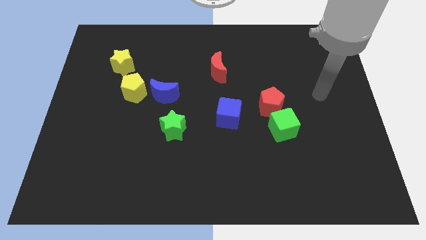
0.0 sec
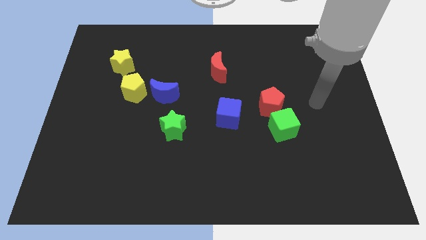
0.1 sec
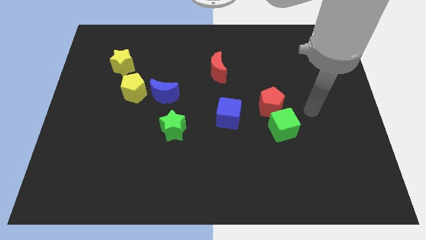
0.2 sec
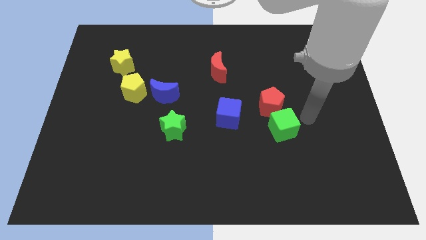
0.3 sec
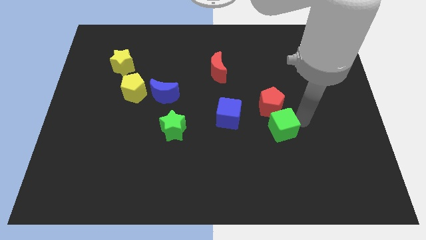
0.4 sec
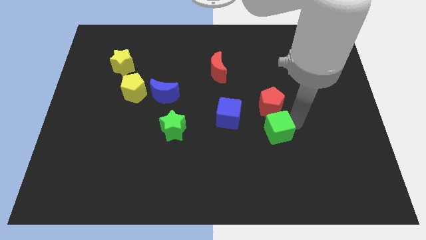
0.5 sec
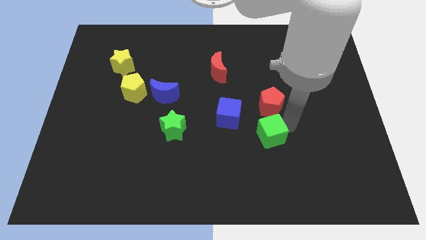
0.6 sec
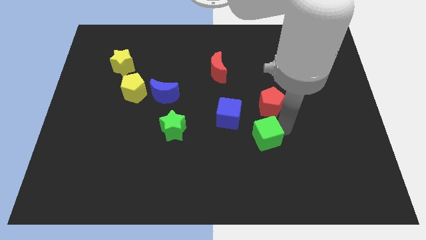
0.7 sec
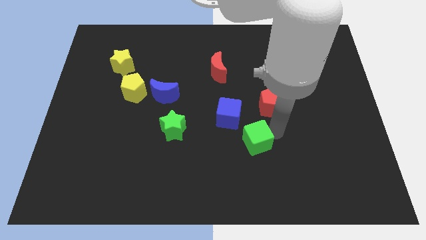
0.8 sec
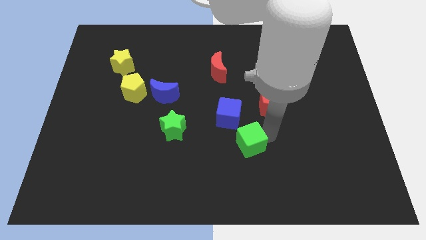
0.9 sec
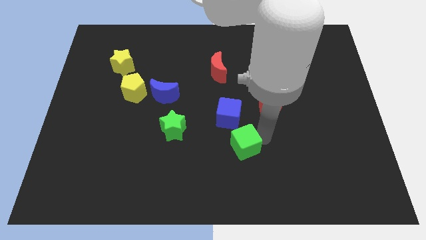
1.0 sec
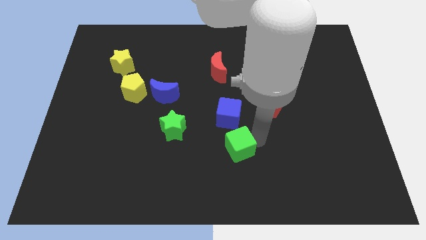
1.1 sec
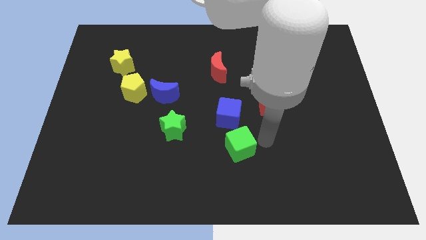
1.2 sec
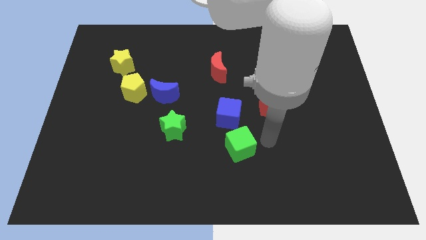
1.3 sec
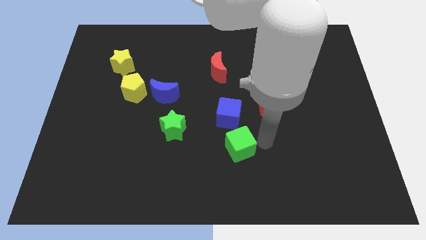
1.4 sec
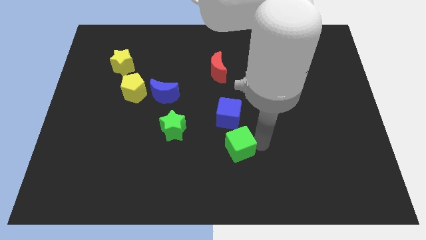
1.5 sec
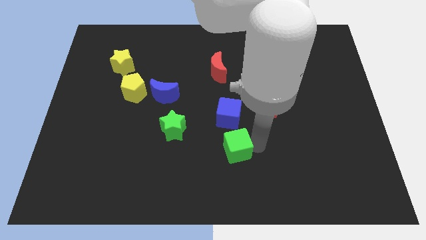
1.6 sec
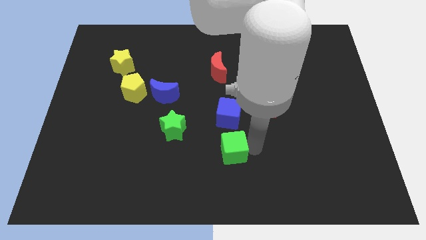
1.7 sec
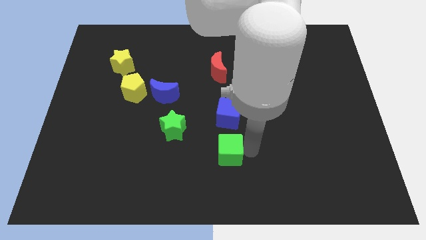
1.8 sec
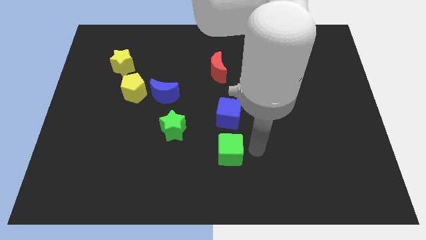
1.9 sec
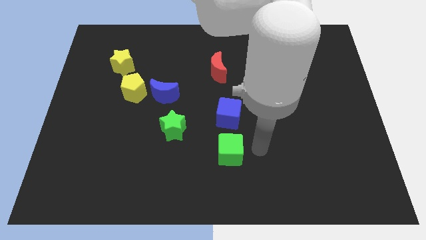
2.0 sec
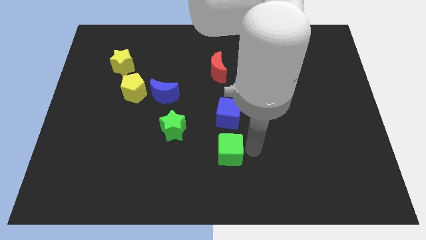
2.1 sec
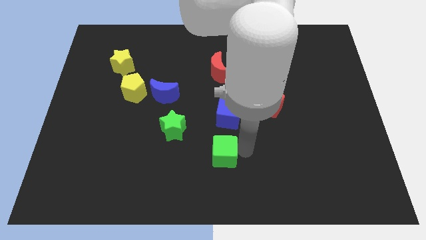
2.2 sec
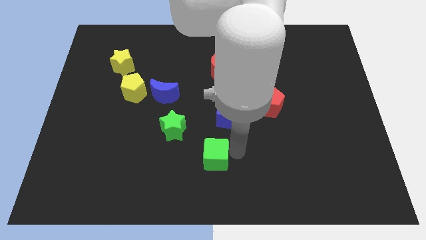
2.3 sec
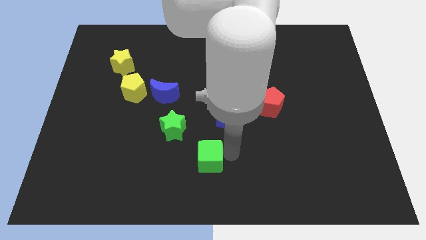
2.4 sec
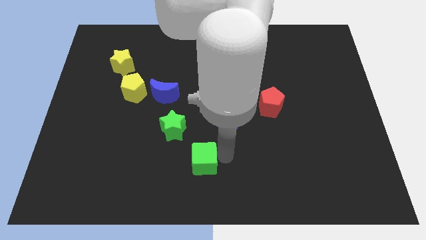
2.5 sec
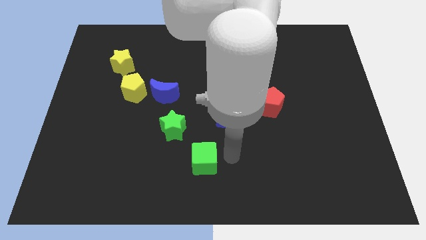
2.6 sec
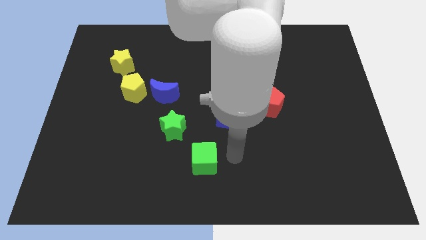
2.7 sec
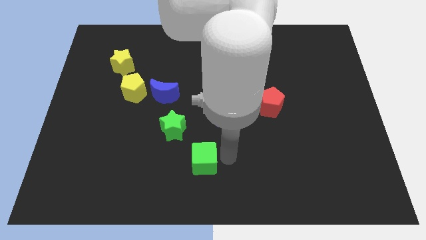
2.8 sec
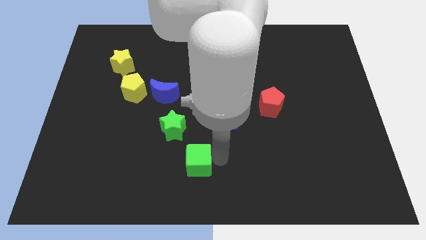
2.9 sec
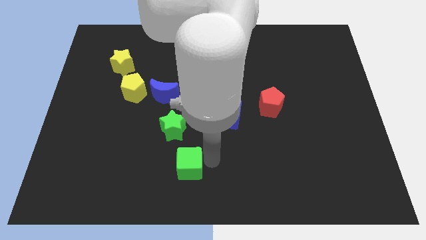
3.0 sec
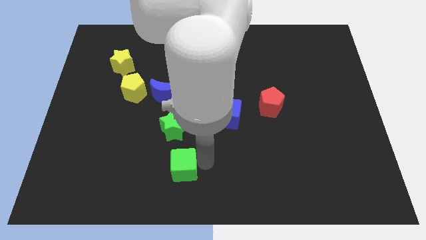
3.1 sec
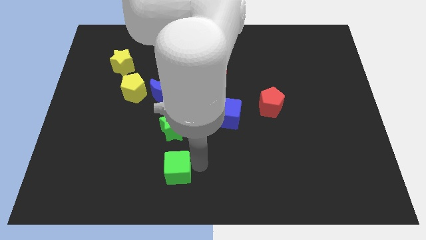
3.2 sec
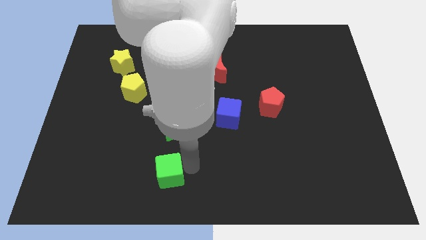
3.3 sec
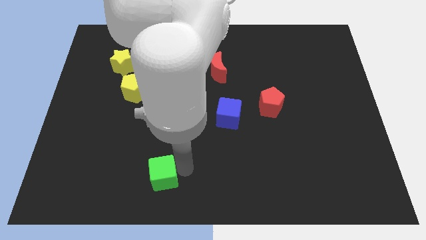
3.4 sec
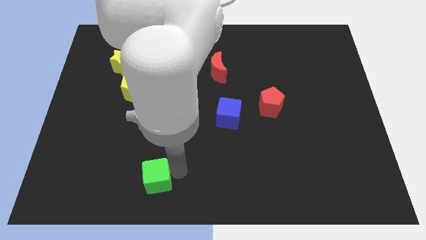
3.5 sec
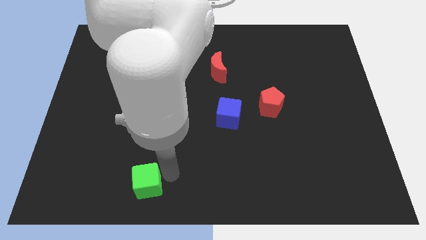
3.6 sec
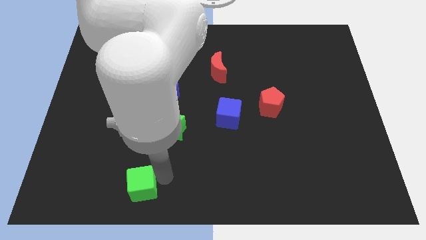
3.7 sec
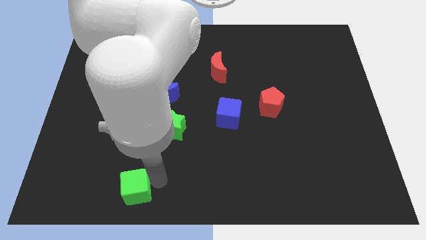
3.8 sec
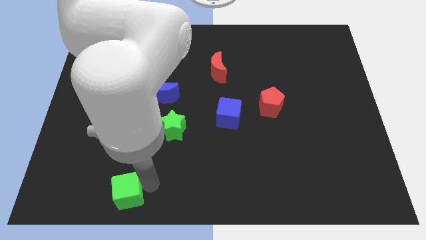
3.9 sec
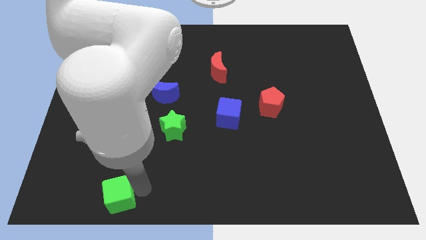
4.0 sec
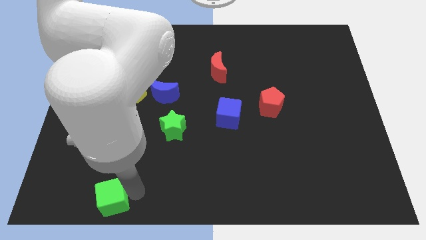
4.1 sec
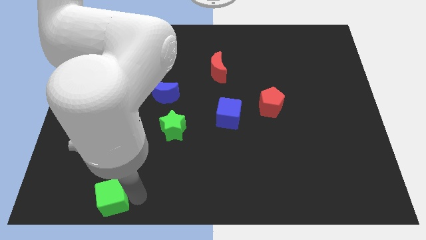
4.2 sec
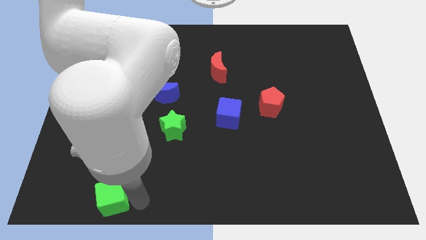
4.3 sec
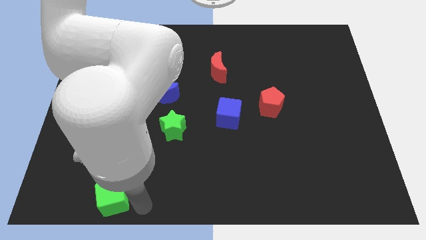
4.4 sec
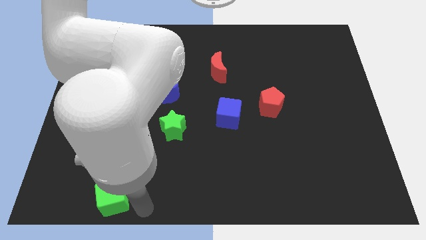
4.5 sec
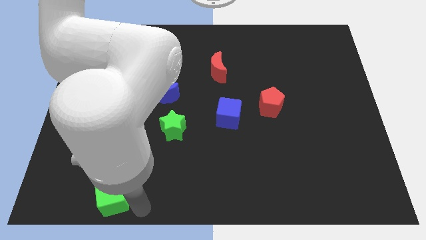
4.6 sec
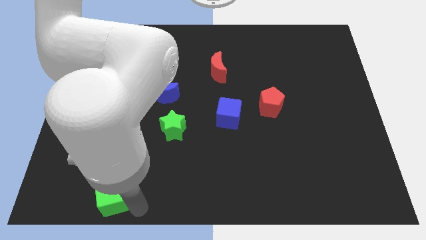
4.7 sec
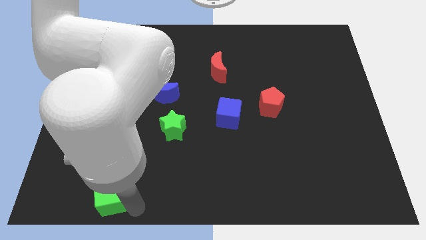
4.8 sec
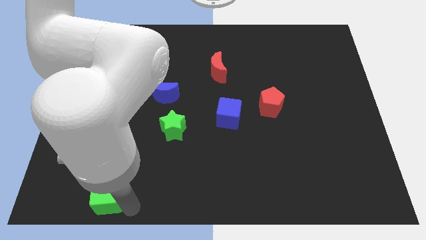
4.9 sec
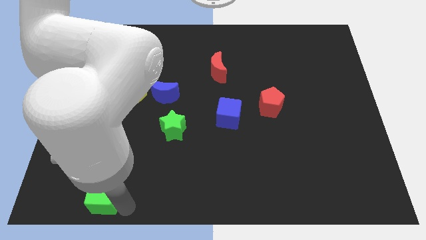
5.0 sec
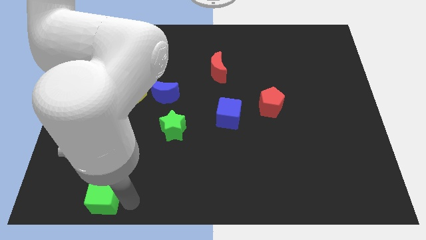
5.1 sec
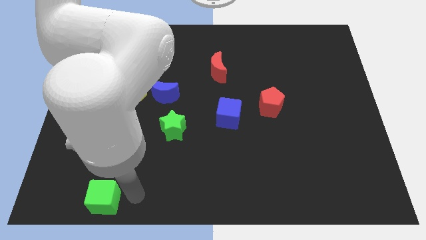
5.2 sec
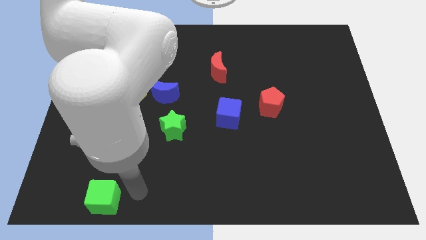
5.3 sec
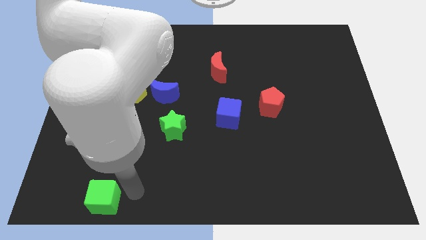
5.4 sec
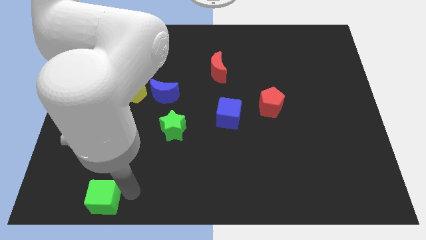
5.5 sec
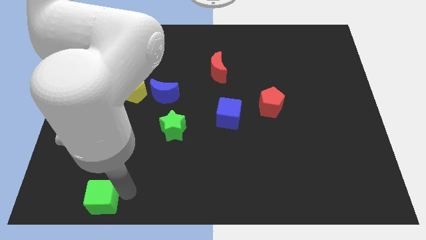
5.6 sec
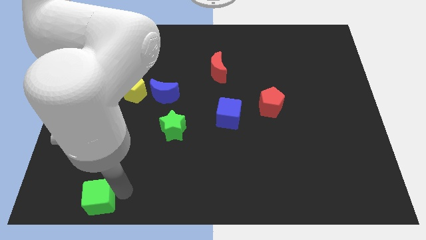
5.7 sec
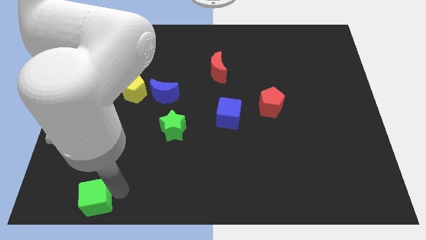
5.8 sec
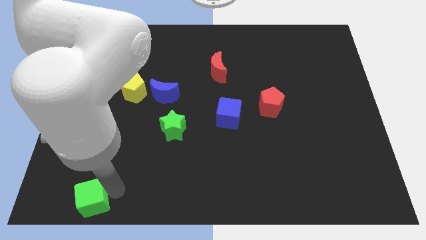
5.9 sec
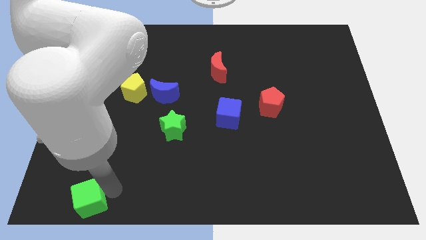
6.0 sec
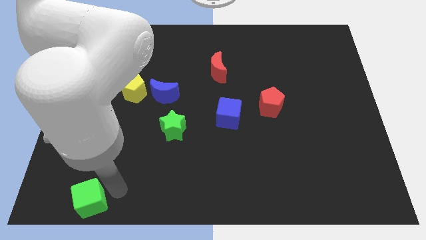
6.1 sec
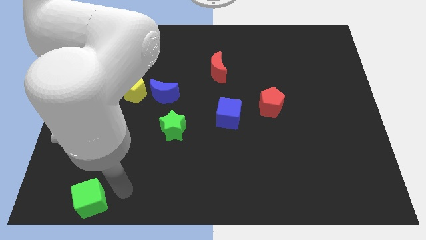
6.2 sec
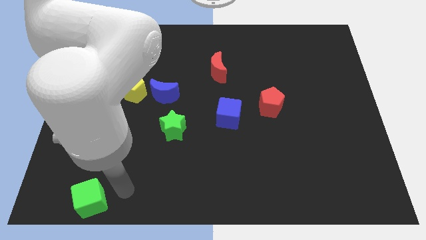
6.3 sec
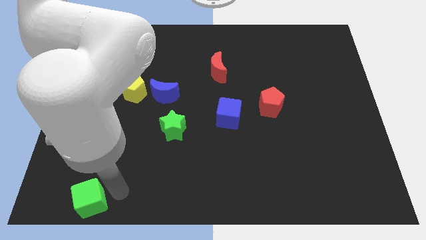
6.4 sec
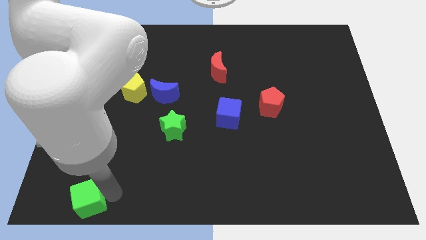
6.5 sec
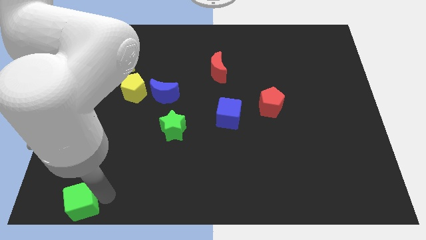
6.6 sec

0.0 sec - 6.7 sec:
put the green cube to the bottom left of the board
